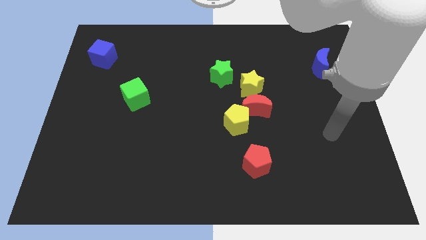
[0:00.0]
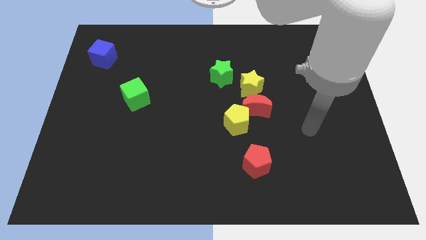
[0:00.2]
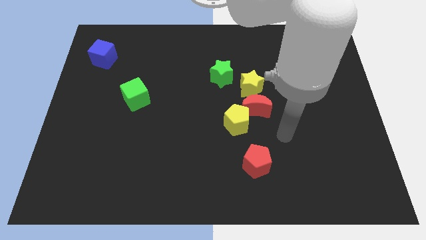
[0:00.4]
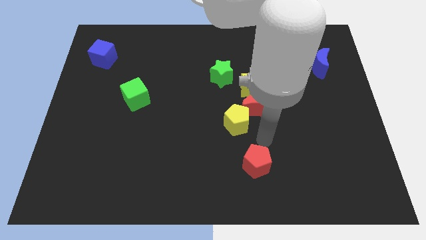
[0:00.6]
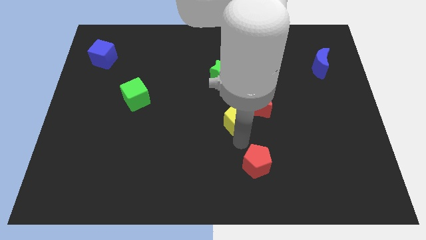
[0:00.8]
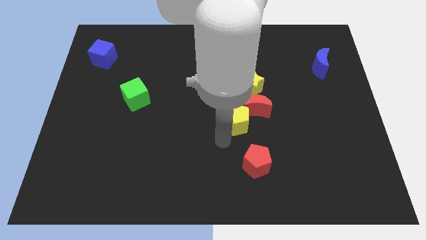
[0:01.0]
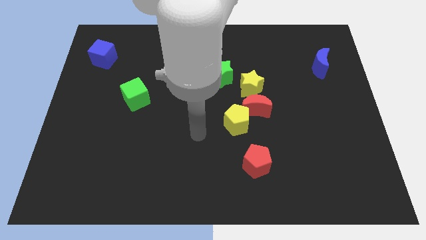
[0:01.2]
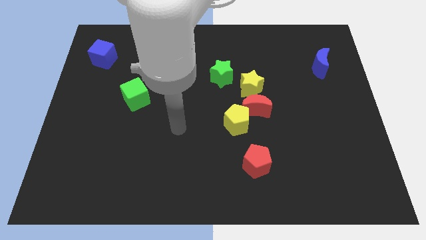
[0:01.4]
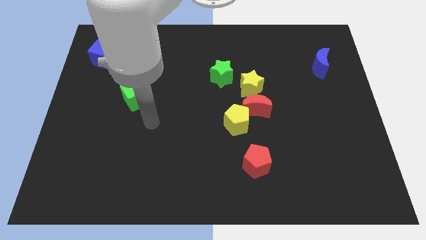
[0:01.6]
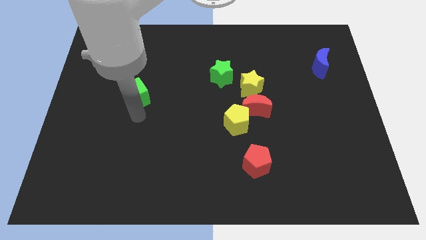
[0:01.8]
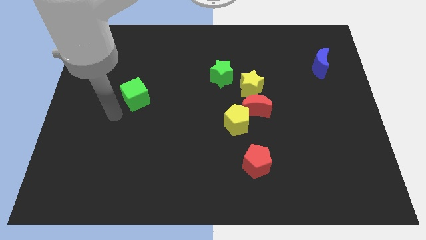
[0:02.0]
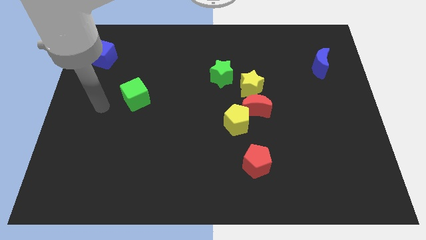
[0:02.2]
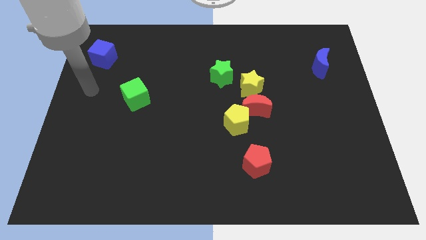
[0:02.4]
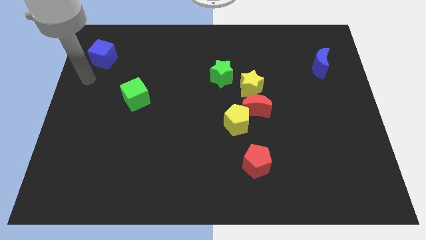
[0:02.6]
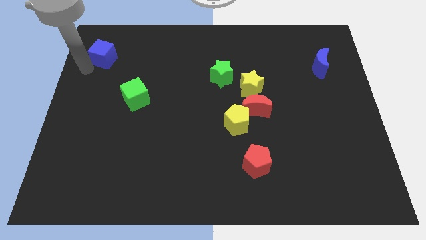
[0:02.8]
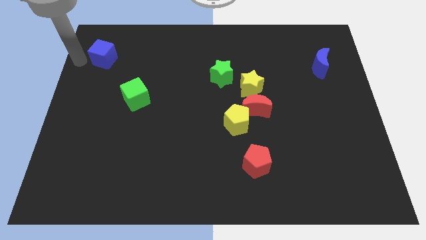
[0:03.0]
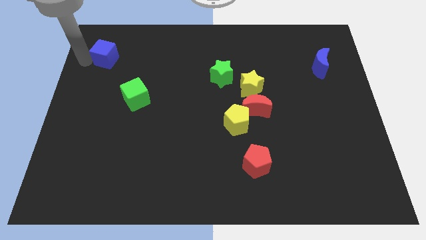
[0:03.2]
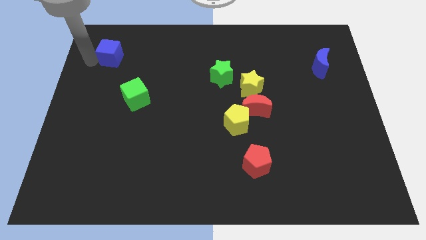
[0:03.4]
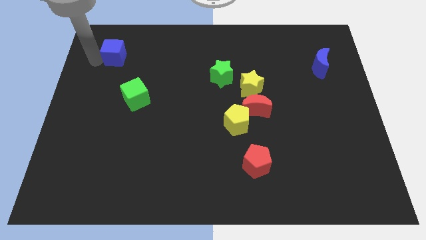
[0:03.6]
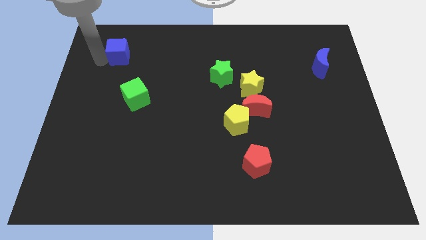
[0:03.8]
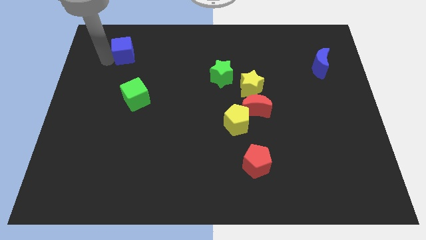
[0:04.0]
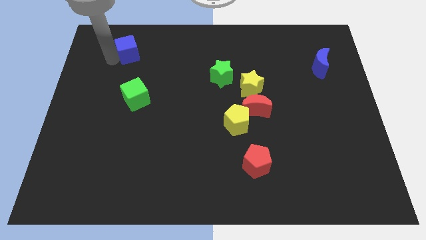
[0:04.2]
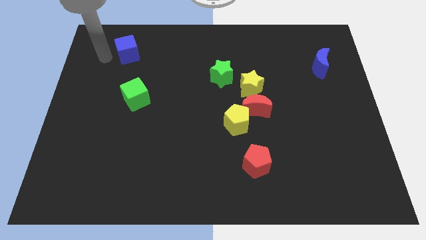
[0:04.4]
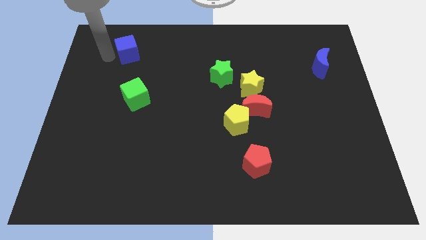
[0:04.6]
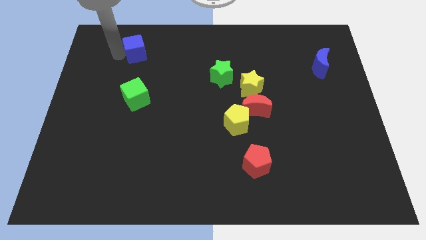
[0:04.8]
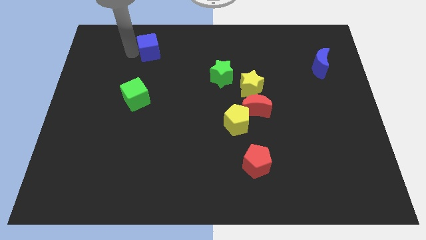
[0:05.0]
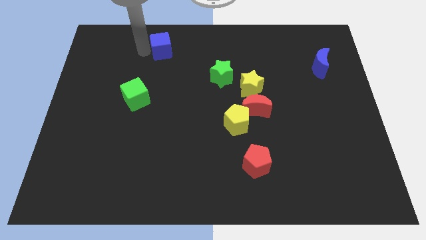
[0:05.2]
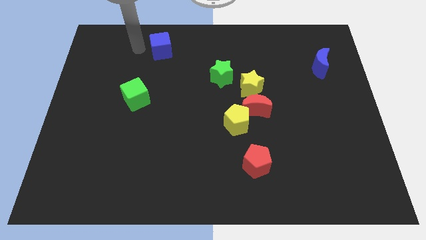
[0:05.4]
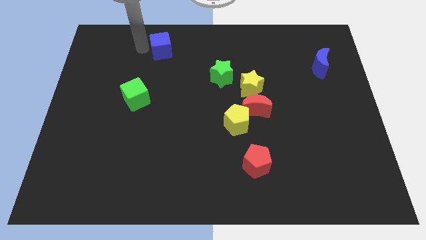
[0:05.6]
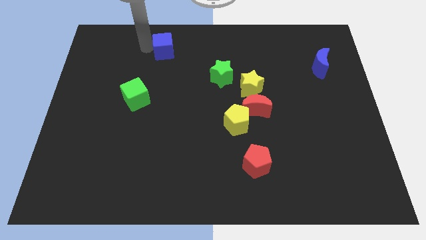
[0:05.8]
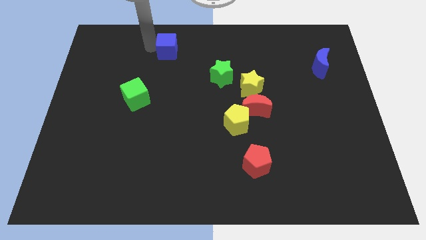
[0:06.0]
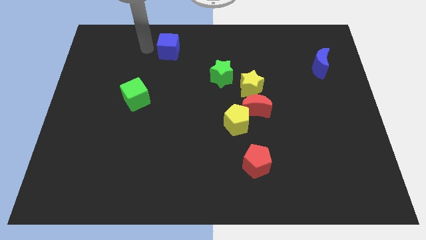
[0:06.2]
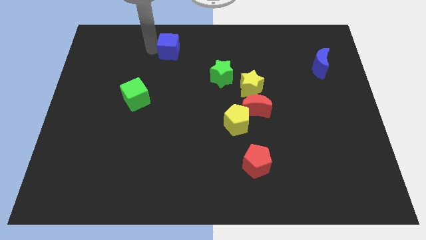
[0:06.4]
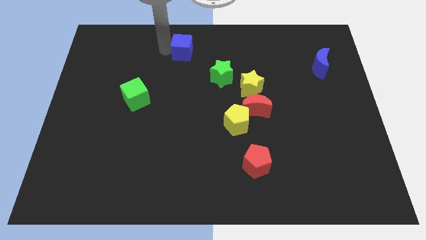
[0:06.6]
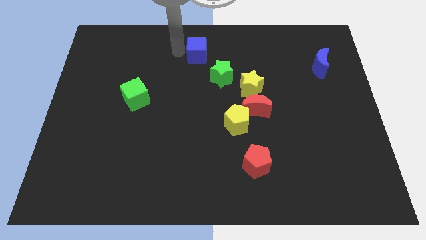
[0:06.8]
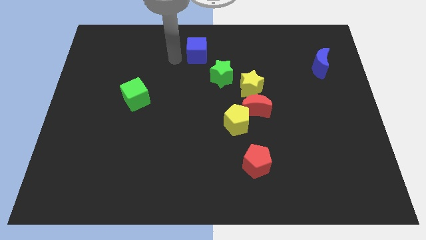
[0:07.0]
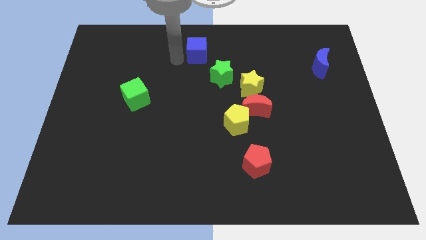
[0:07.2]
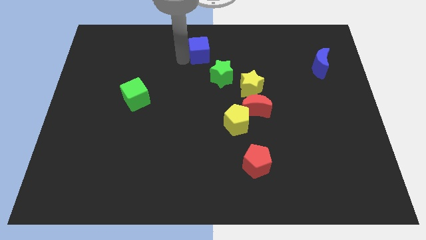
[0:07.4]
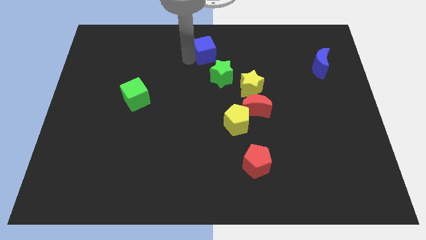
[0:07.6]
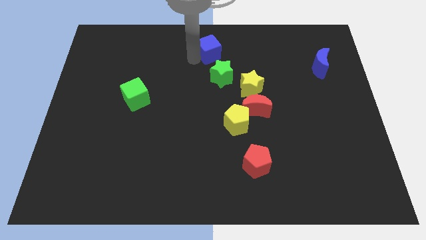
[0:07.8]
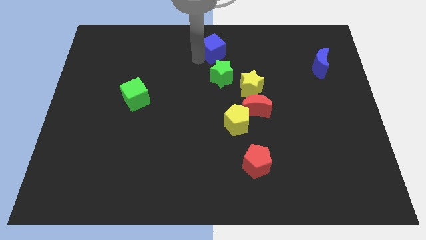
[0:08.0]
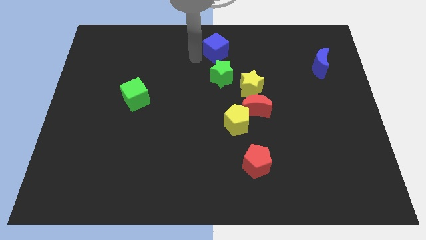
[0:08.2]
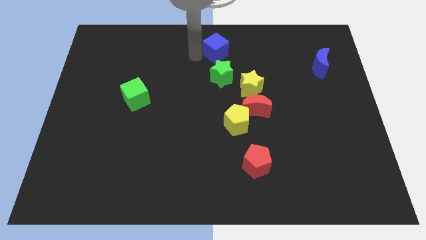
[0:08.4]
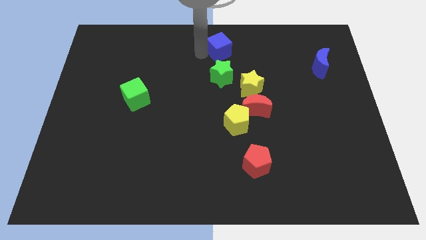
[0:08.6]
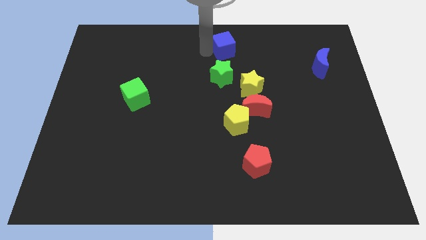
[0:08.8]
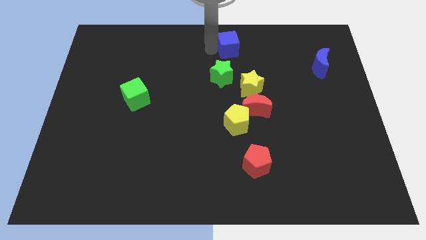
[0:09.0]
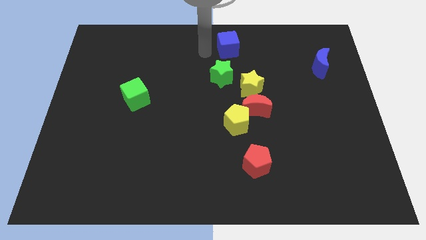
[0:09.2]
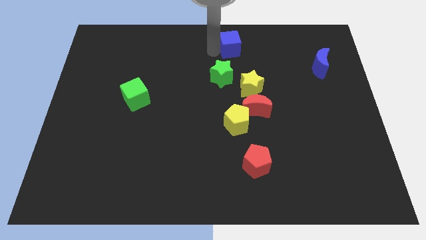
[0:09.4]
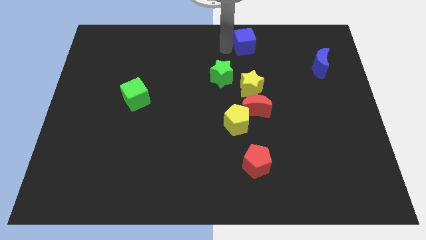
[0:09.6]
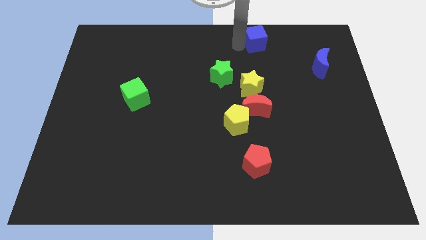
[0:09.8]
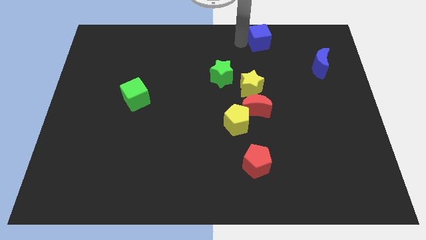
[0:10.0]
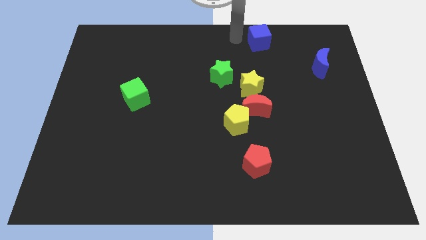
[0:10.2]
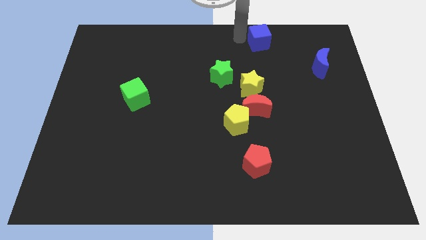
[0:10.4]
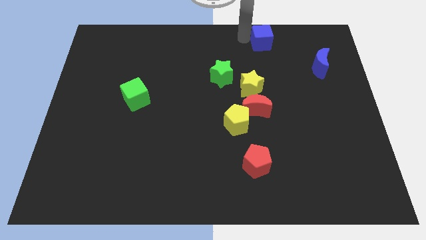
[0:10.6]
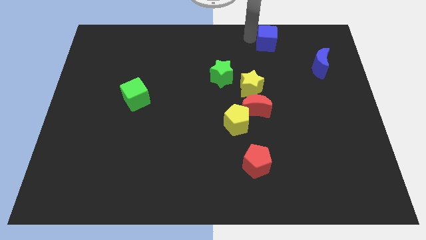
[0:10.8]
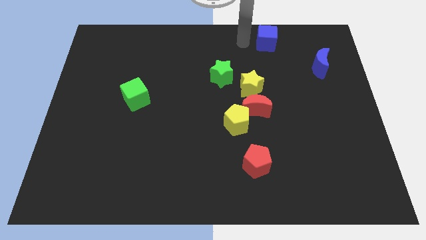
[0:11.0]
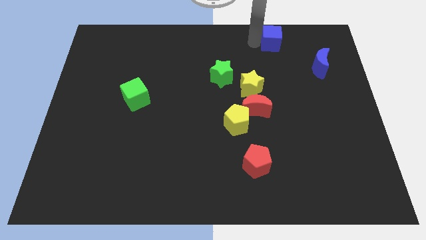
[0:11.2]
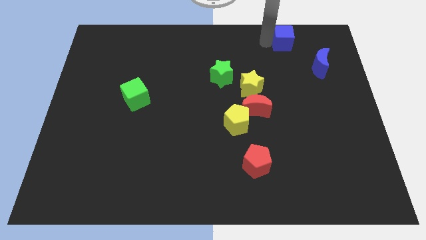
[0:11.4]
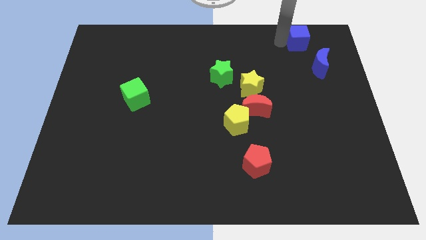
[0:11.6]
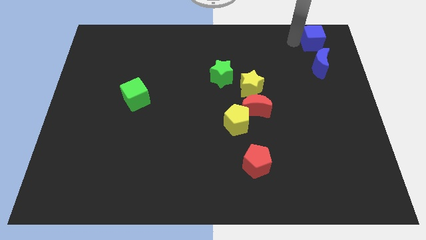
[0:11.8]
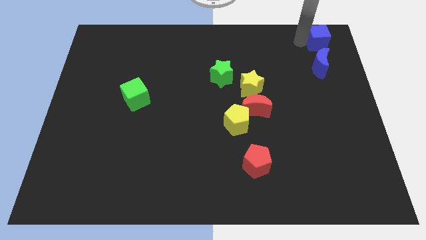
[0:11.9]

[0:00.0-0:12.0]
push the blue cube to the top right

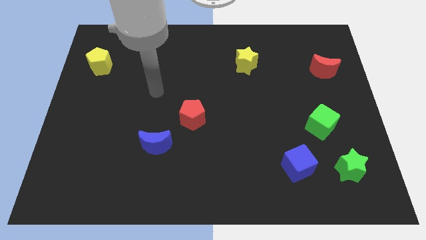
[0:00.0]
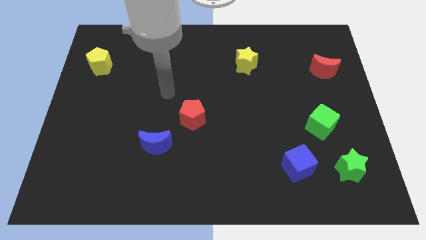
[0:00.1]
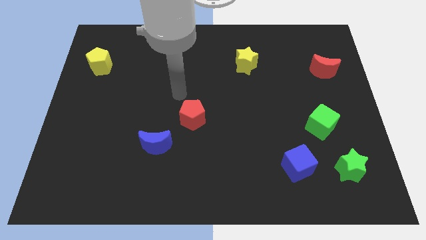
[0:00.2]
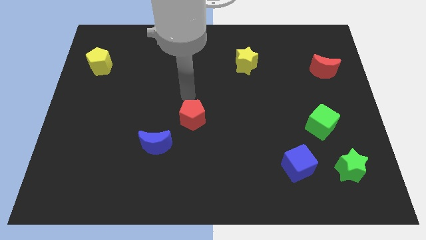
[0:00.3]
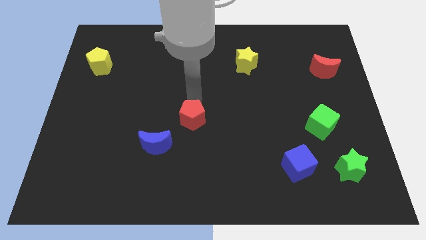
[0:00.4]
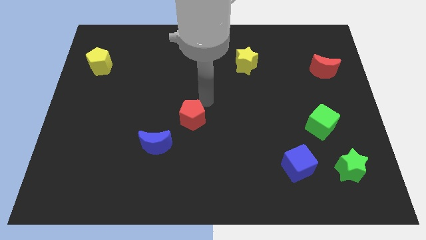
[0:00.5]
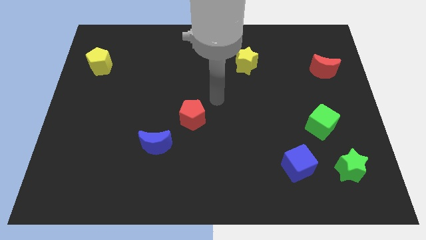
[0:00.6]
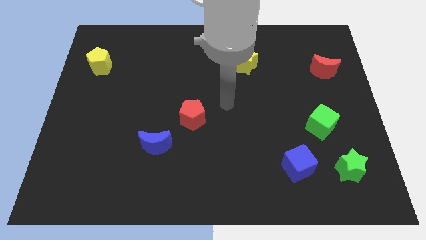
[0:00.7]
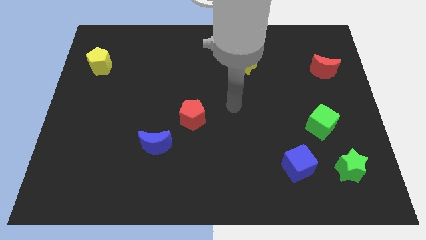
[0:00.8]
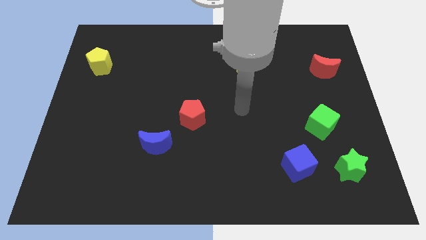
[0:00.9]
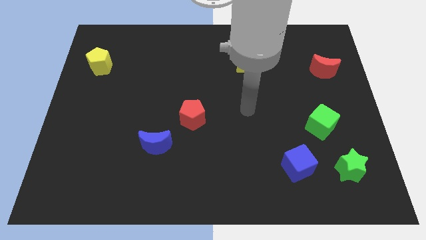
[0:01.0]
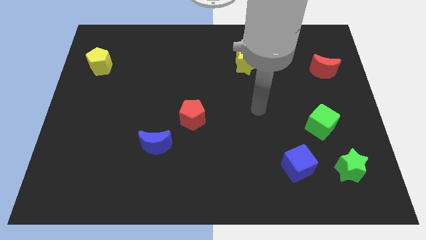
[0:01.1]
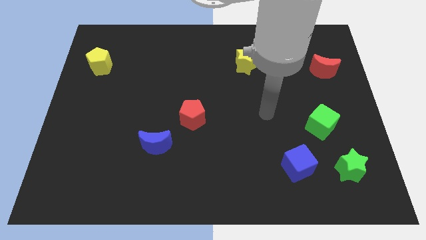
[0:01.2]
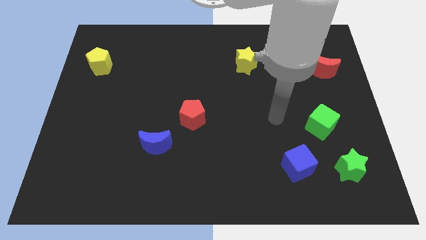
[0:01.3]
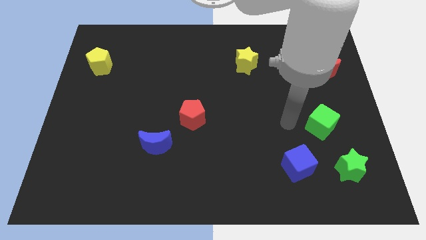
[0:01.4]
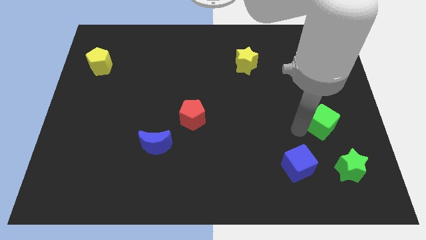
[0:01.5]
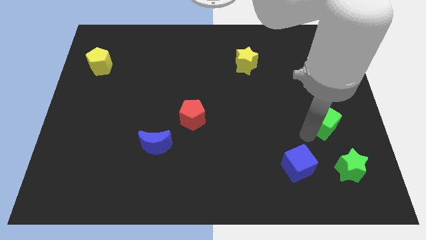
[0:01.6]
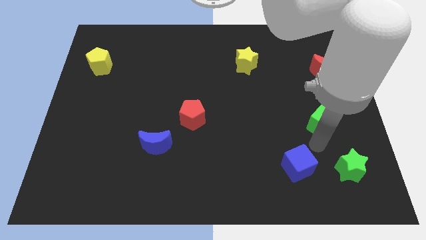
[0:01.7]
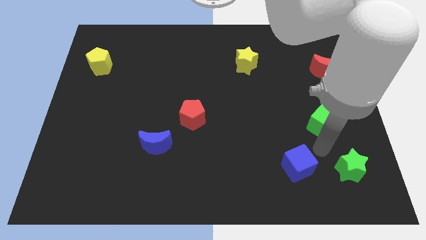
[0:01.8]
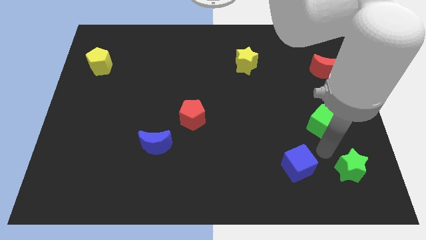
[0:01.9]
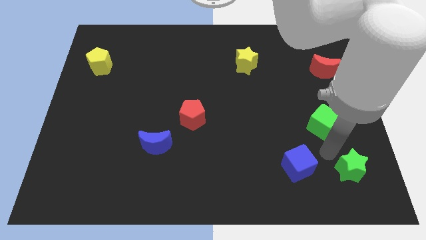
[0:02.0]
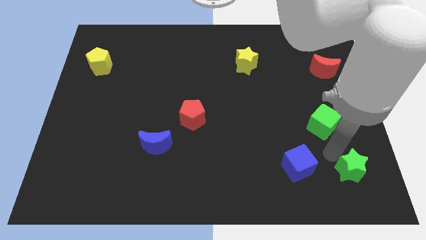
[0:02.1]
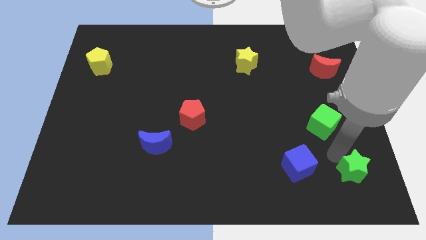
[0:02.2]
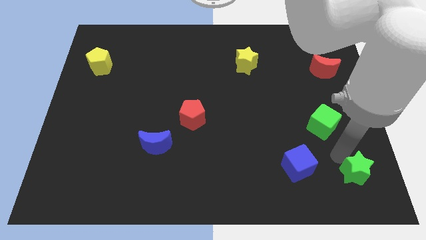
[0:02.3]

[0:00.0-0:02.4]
push the green star to the lower right corner
